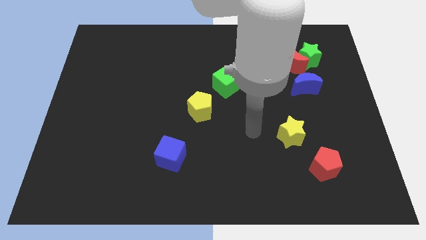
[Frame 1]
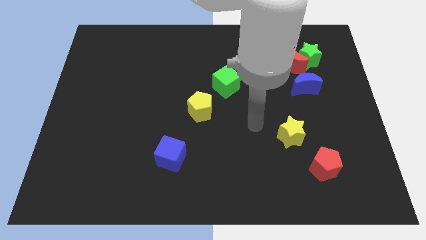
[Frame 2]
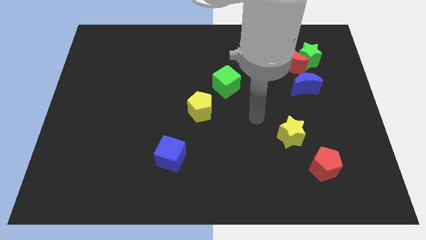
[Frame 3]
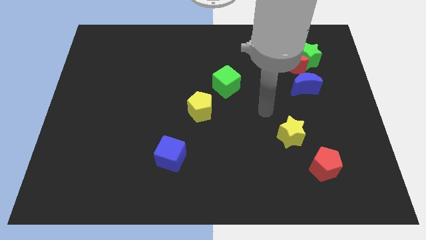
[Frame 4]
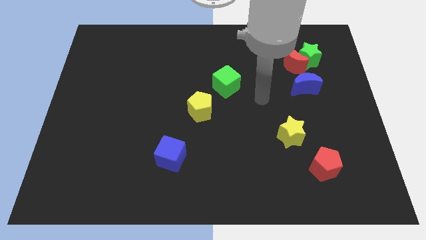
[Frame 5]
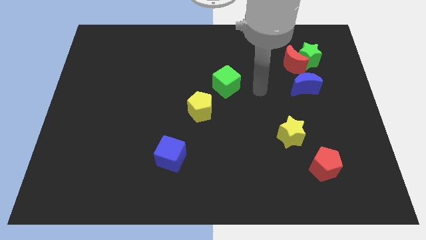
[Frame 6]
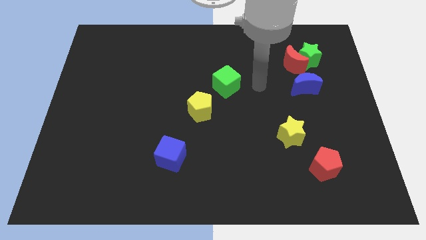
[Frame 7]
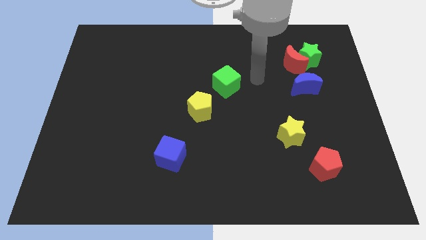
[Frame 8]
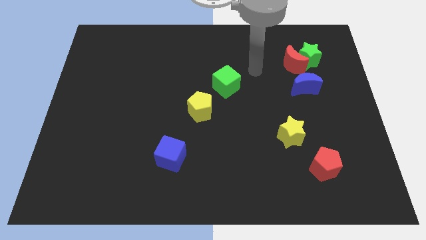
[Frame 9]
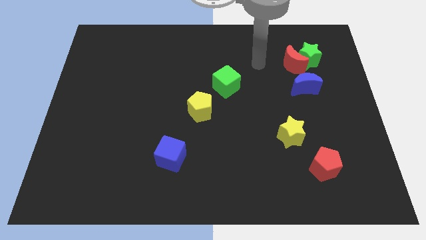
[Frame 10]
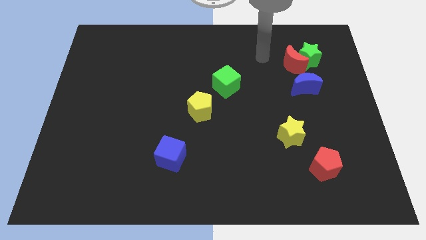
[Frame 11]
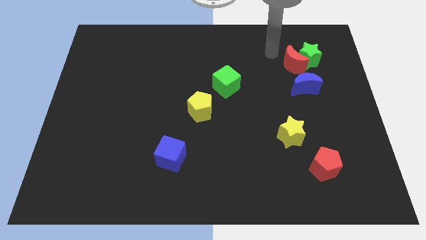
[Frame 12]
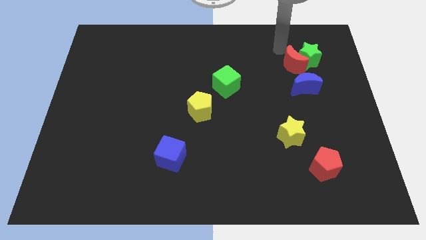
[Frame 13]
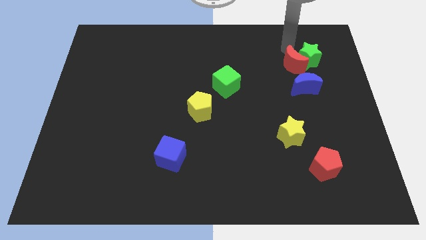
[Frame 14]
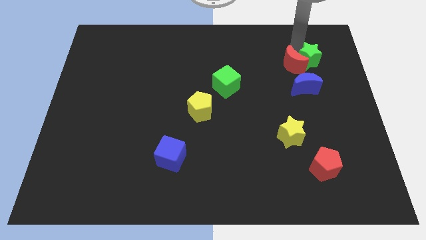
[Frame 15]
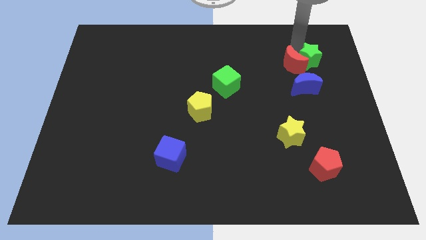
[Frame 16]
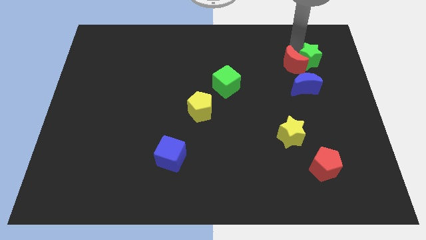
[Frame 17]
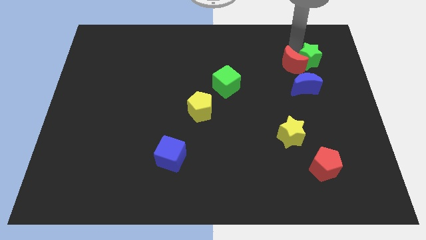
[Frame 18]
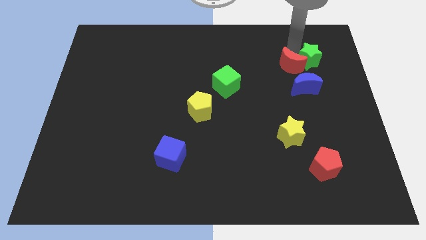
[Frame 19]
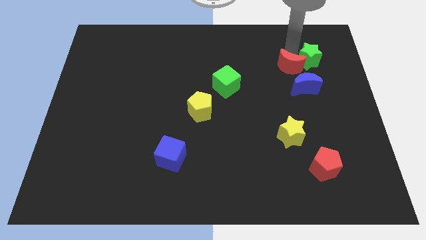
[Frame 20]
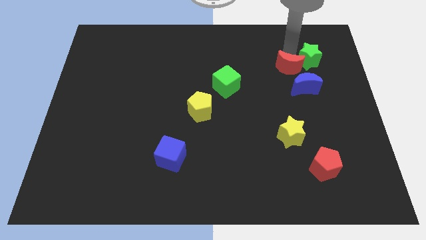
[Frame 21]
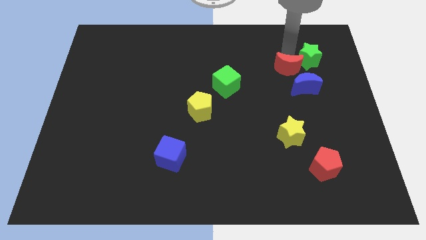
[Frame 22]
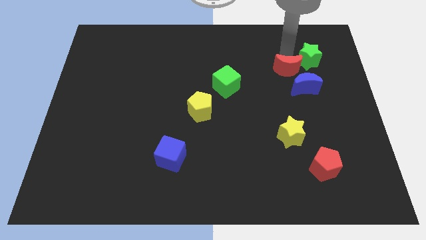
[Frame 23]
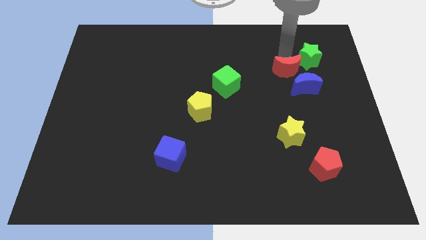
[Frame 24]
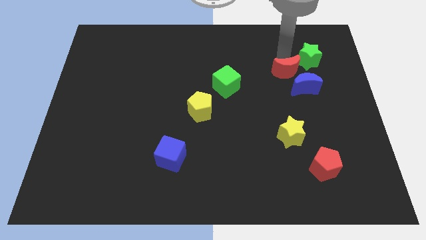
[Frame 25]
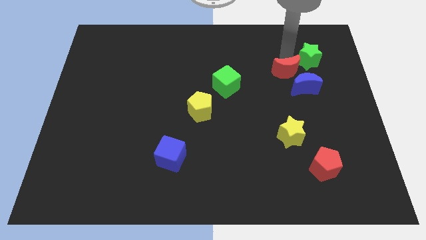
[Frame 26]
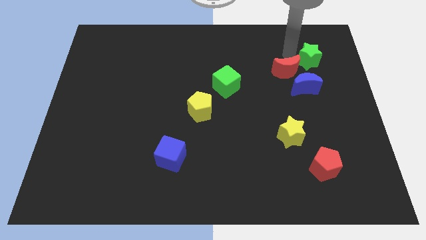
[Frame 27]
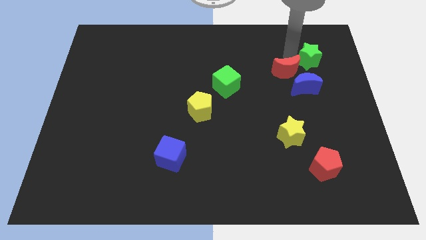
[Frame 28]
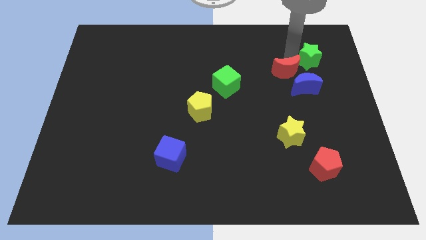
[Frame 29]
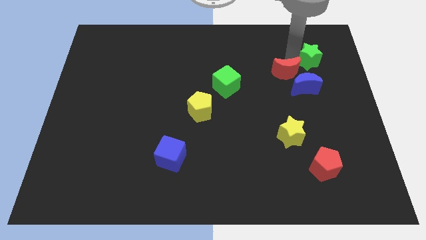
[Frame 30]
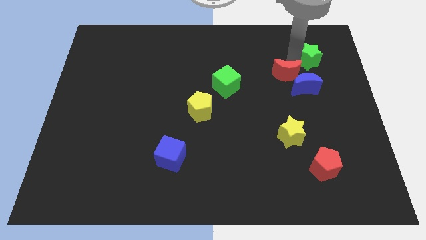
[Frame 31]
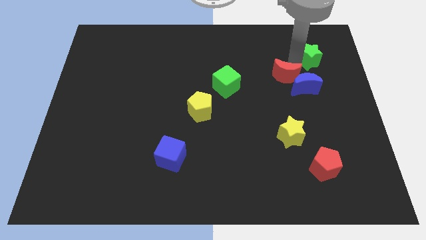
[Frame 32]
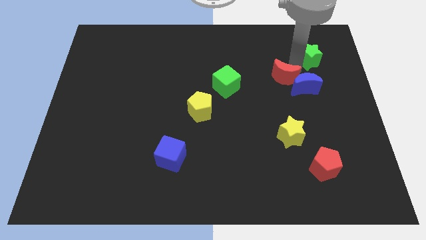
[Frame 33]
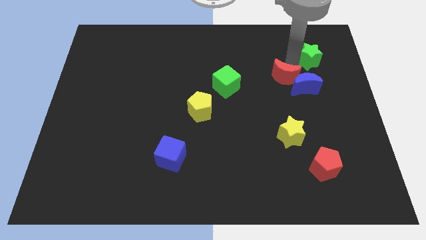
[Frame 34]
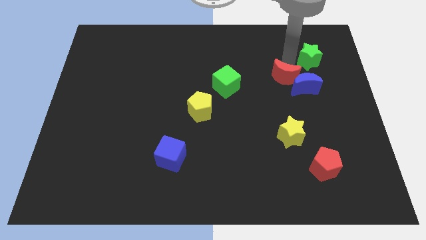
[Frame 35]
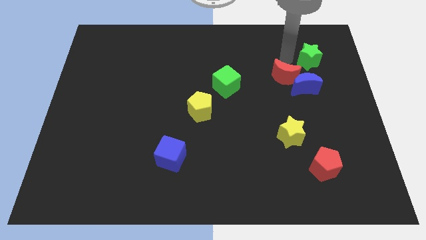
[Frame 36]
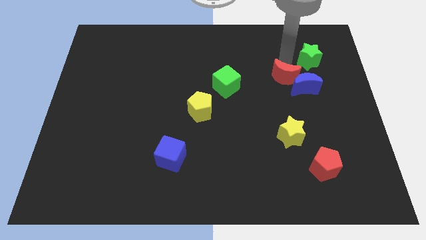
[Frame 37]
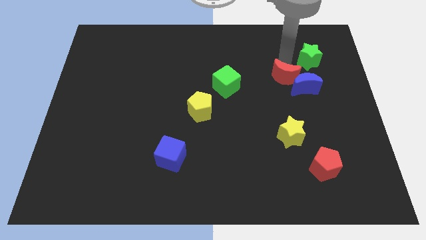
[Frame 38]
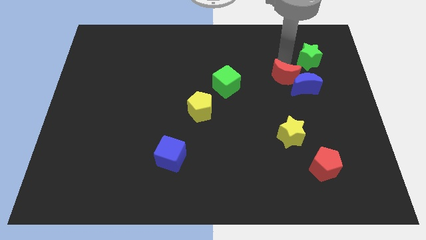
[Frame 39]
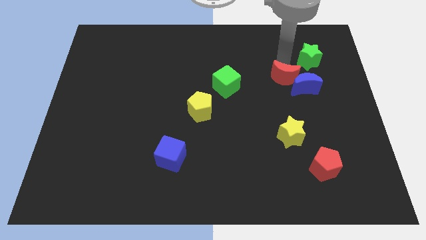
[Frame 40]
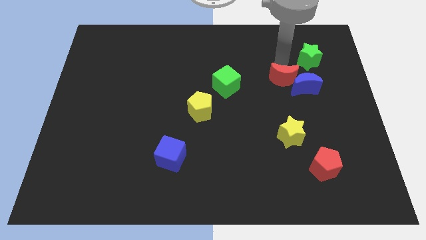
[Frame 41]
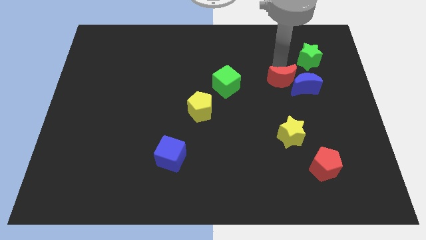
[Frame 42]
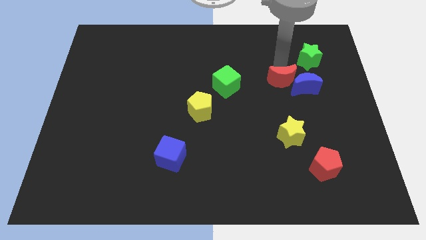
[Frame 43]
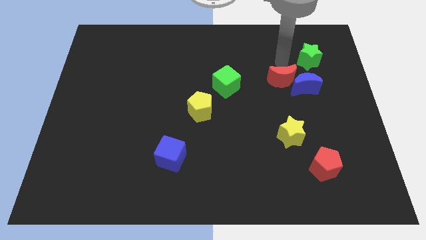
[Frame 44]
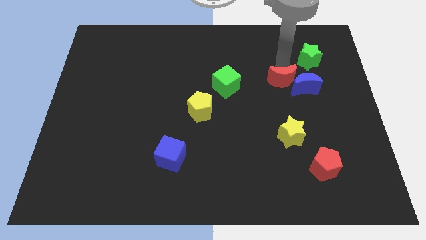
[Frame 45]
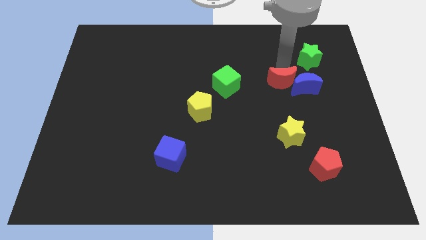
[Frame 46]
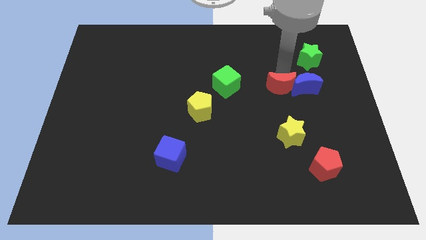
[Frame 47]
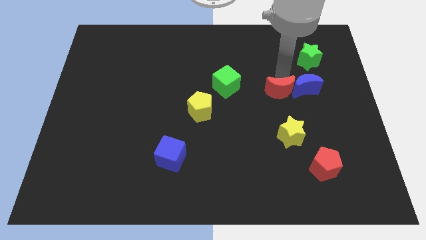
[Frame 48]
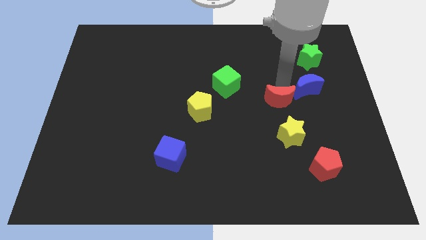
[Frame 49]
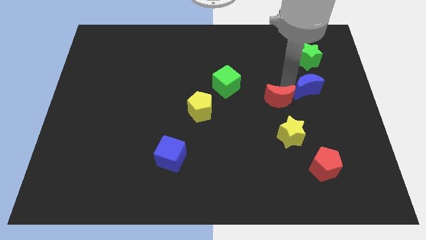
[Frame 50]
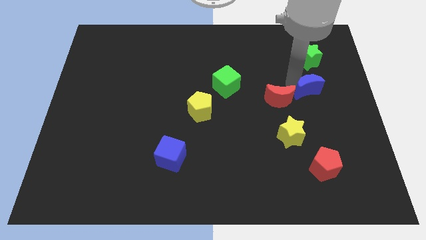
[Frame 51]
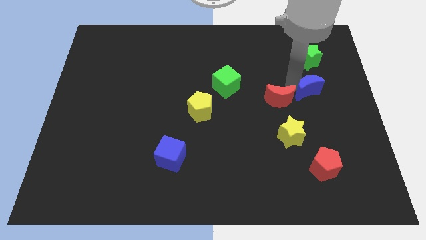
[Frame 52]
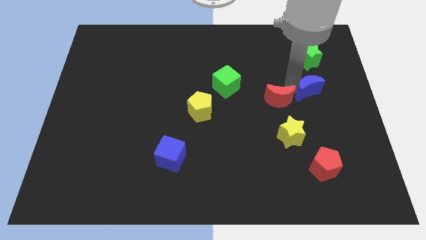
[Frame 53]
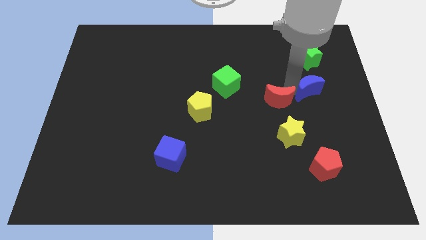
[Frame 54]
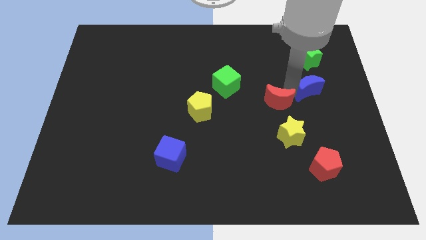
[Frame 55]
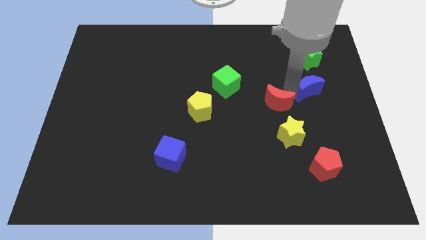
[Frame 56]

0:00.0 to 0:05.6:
slide the red moon diagonally up and to the left of the yellow star

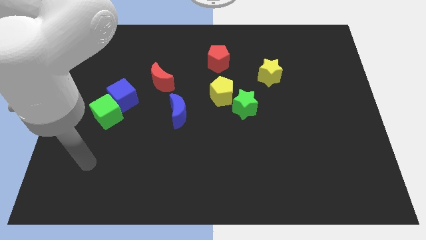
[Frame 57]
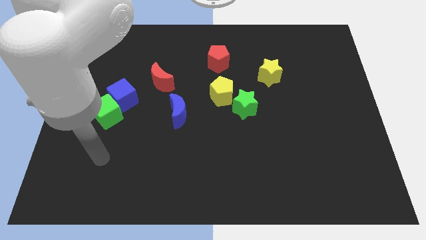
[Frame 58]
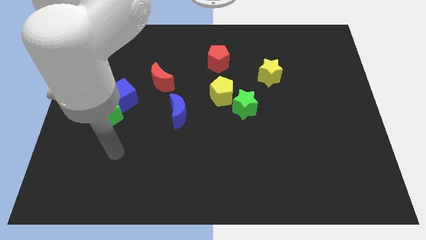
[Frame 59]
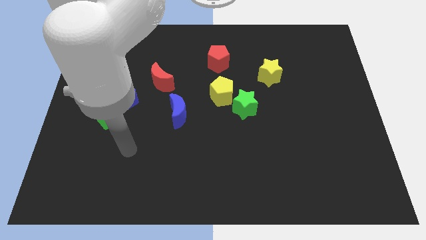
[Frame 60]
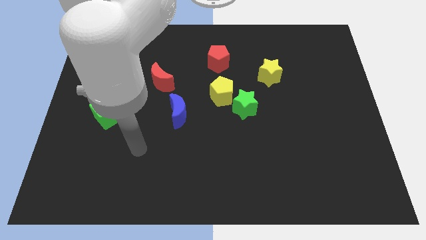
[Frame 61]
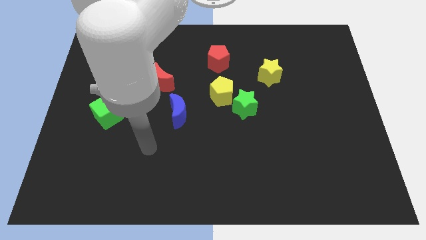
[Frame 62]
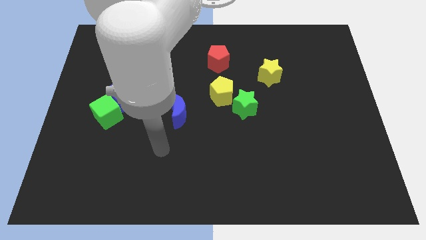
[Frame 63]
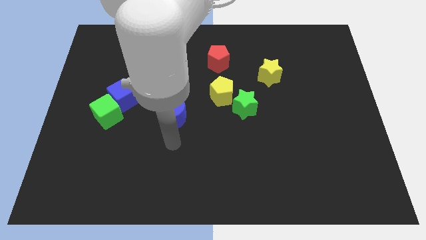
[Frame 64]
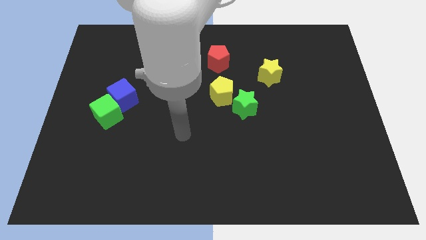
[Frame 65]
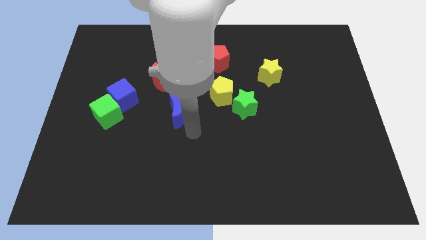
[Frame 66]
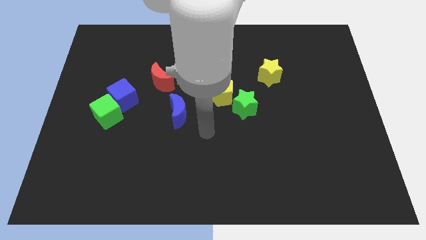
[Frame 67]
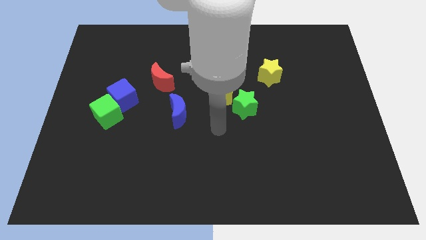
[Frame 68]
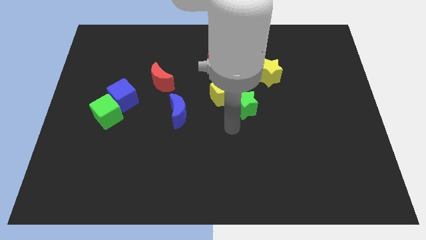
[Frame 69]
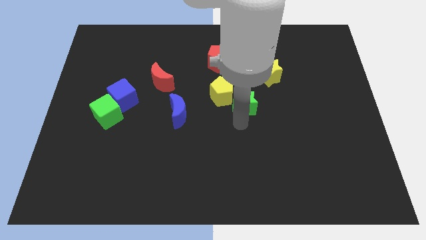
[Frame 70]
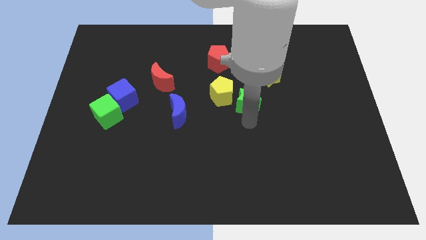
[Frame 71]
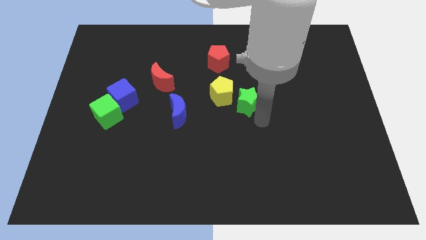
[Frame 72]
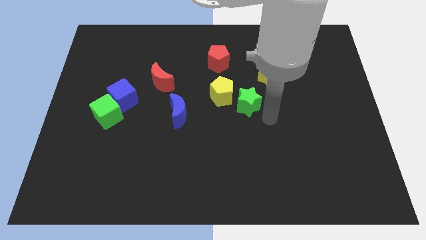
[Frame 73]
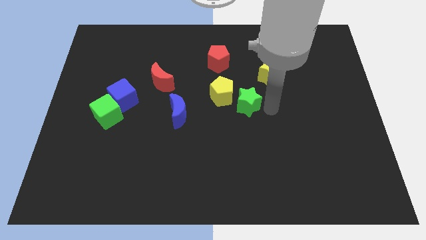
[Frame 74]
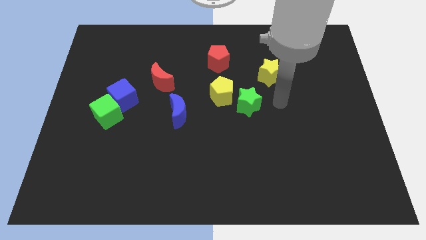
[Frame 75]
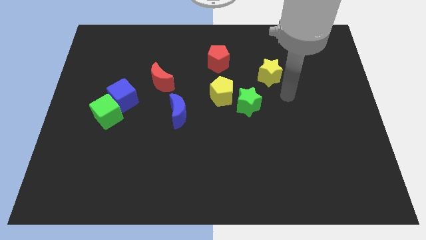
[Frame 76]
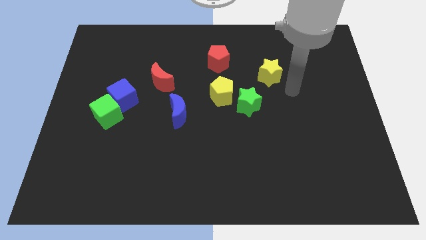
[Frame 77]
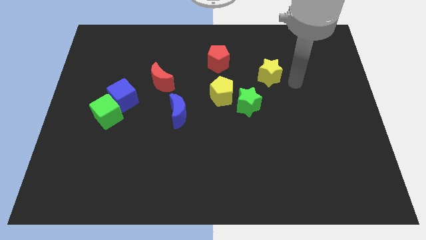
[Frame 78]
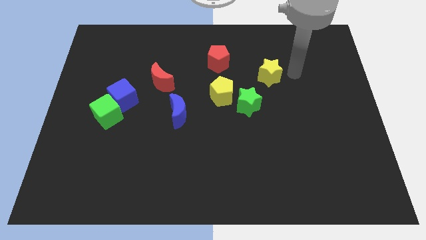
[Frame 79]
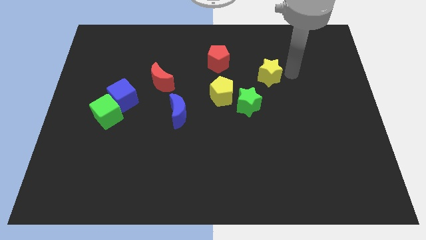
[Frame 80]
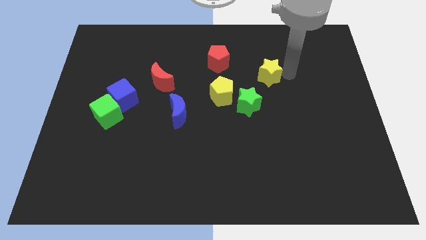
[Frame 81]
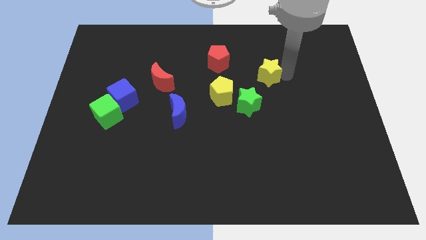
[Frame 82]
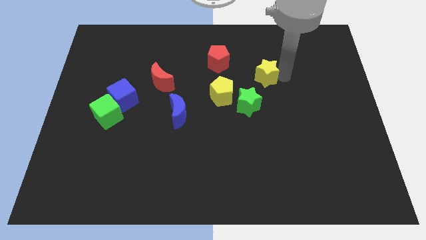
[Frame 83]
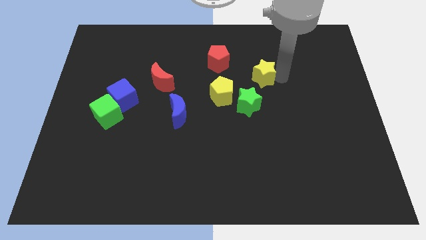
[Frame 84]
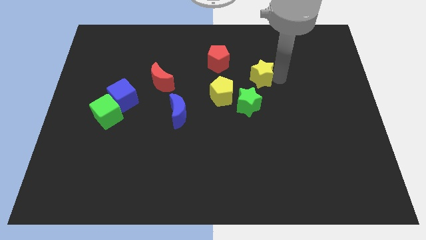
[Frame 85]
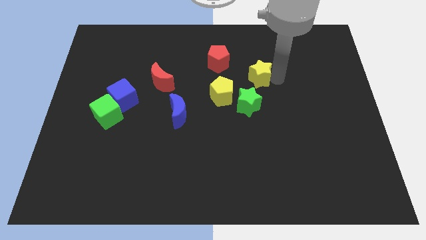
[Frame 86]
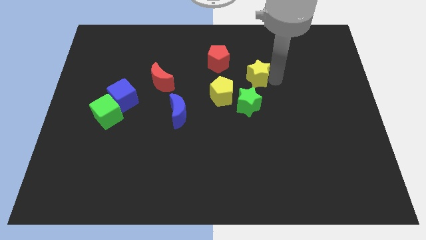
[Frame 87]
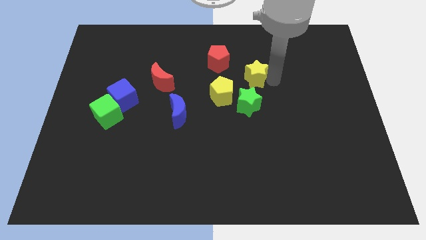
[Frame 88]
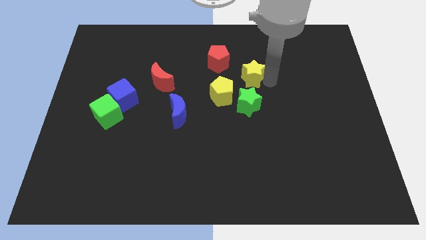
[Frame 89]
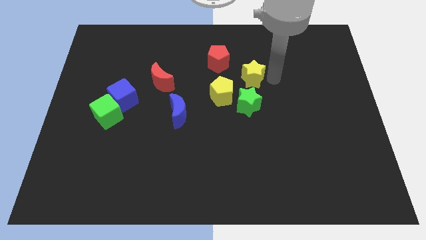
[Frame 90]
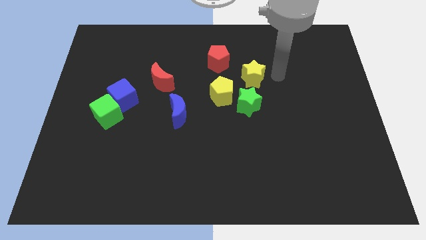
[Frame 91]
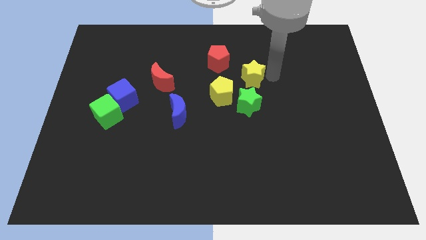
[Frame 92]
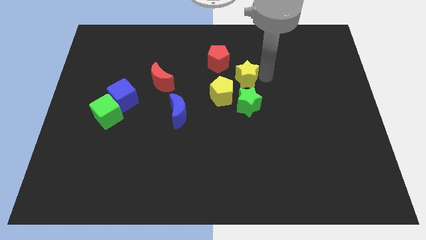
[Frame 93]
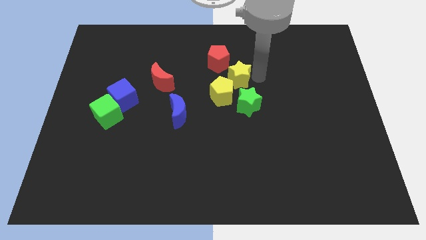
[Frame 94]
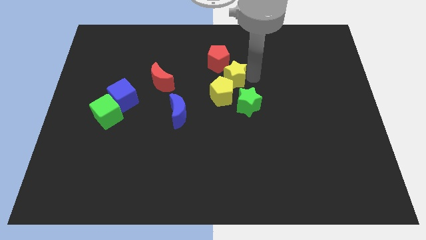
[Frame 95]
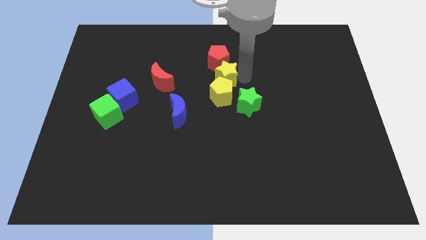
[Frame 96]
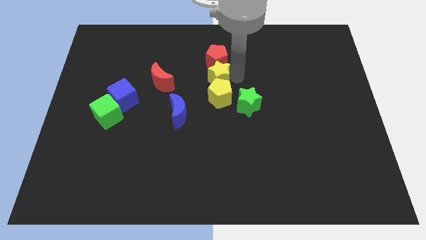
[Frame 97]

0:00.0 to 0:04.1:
slide the yellow star to the top left side of the yellow pentagon
